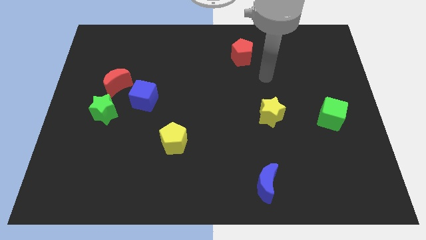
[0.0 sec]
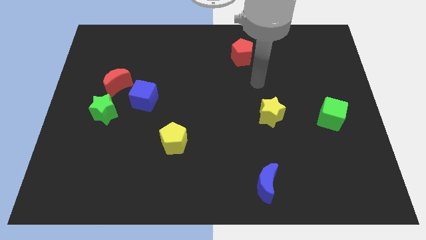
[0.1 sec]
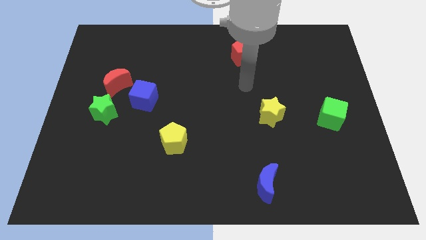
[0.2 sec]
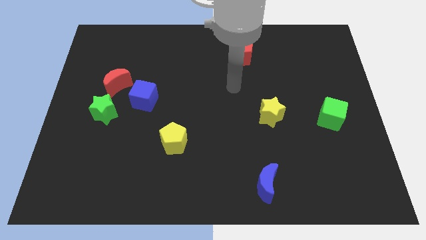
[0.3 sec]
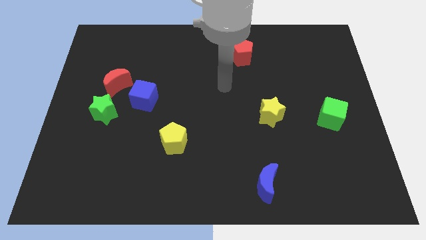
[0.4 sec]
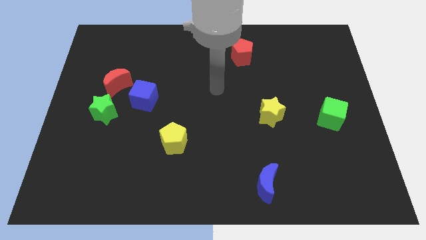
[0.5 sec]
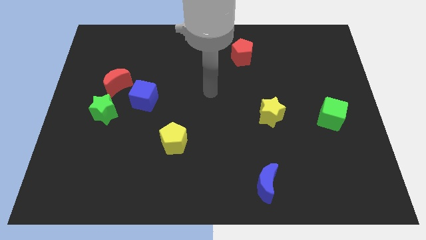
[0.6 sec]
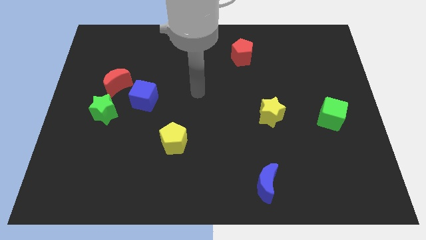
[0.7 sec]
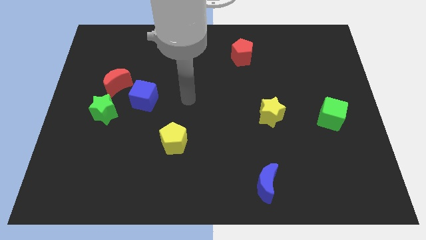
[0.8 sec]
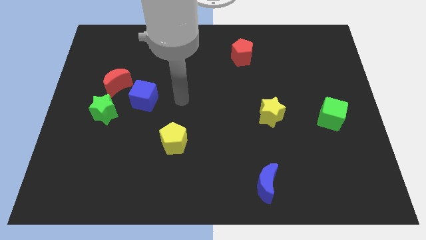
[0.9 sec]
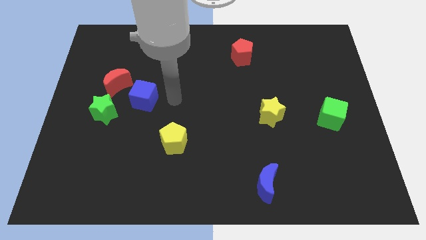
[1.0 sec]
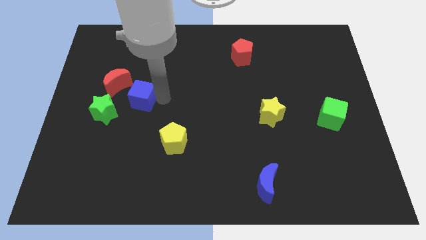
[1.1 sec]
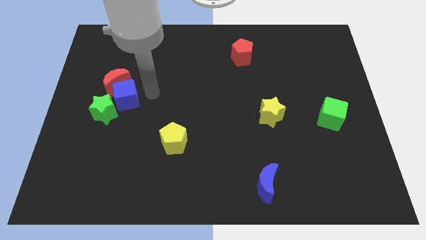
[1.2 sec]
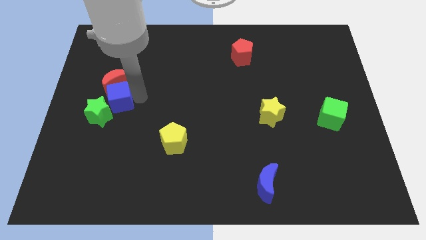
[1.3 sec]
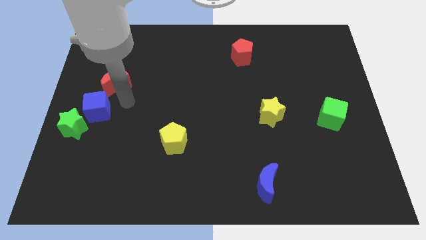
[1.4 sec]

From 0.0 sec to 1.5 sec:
move the red moon away from the blue cube and green star

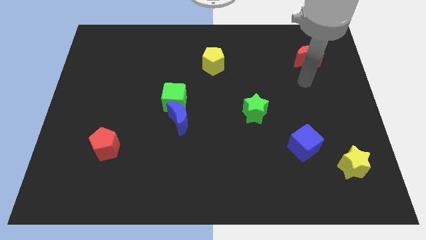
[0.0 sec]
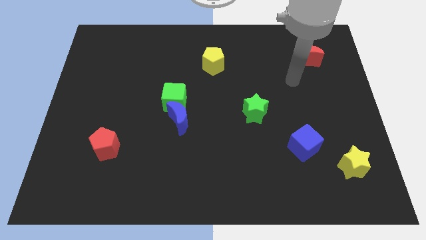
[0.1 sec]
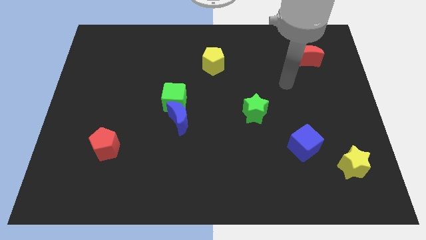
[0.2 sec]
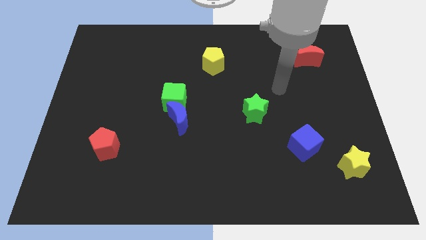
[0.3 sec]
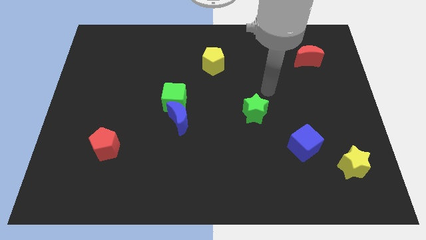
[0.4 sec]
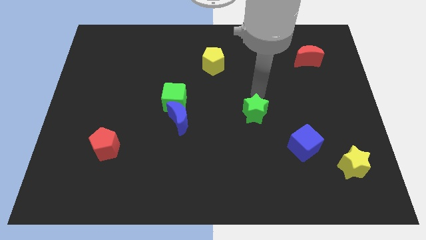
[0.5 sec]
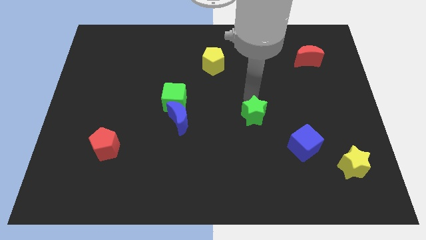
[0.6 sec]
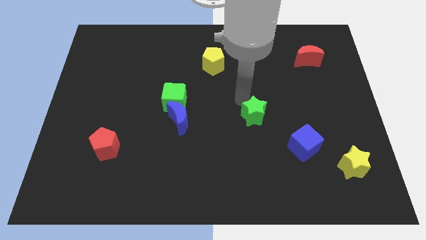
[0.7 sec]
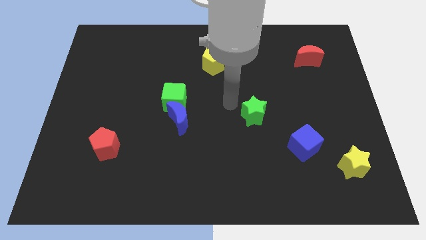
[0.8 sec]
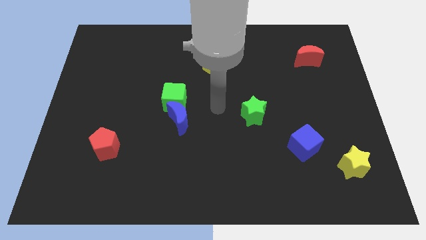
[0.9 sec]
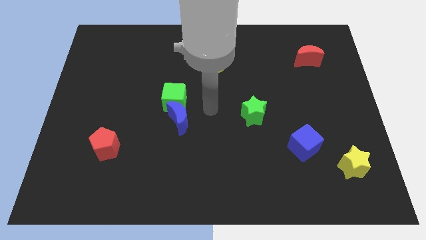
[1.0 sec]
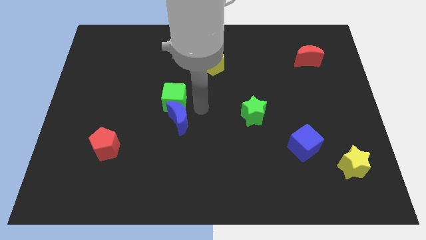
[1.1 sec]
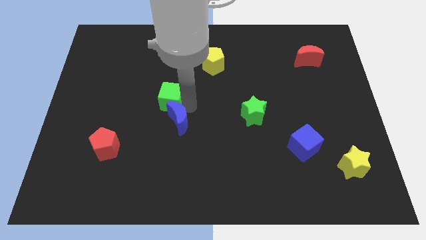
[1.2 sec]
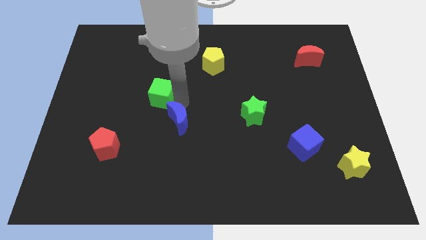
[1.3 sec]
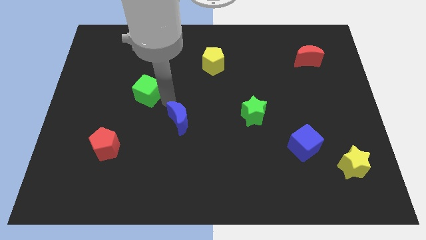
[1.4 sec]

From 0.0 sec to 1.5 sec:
pull the blue moon apart from the green cube

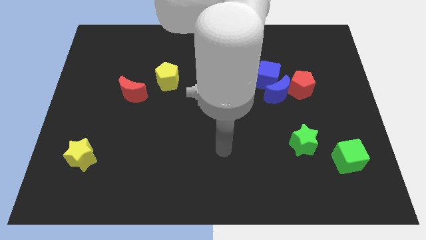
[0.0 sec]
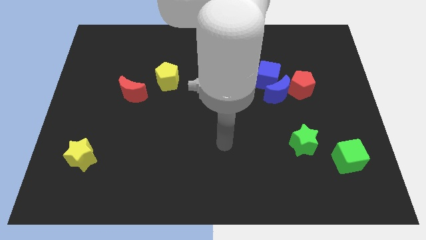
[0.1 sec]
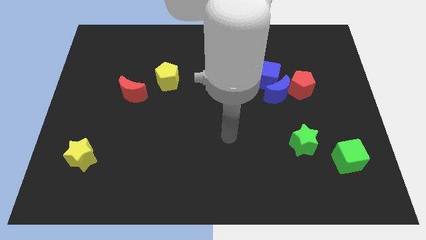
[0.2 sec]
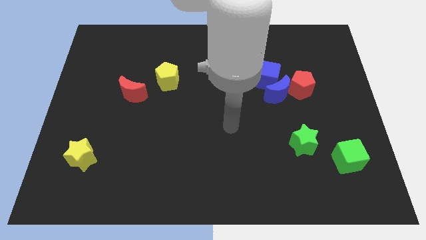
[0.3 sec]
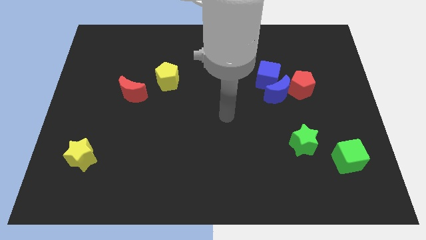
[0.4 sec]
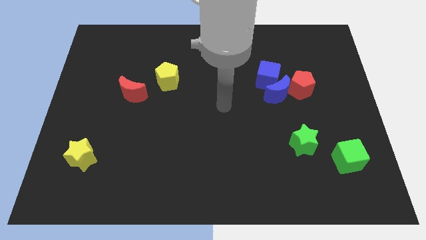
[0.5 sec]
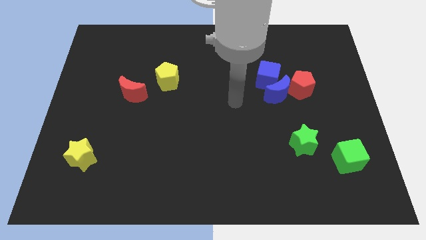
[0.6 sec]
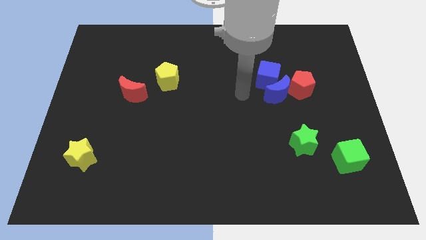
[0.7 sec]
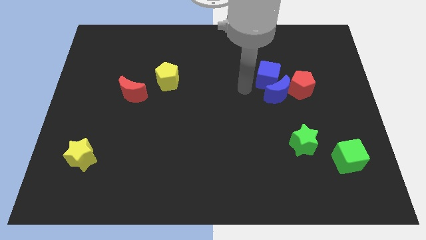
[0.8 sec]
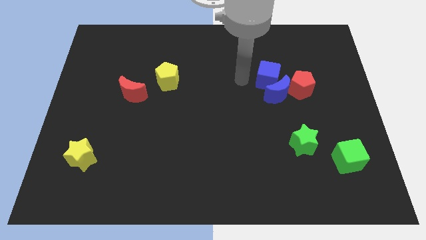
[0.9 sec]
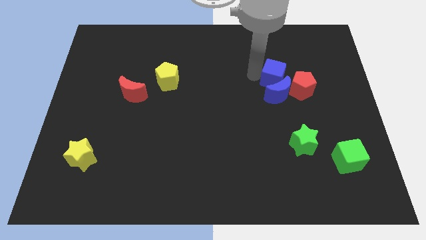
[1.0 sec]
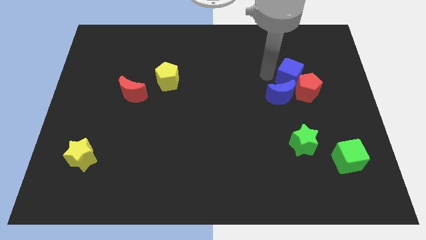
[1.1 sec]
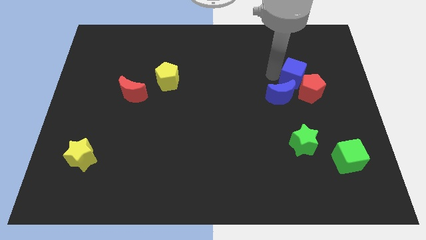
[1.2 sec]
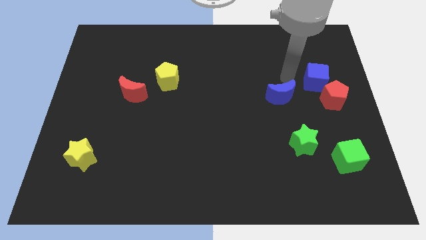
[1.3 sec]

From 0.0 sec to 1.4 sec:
pull the blue moon apart from the blue cube and red pentagon

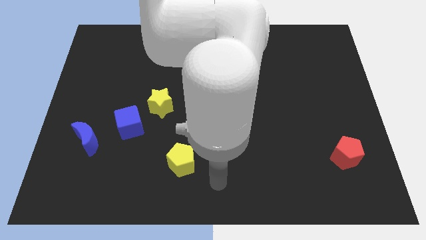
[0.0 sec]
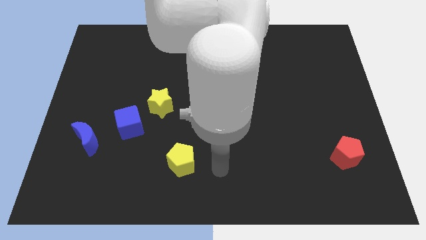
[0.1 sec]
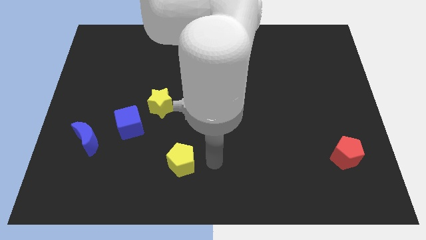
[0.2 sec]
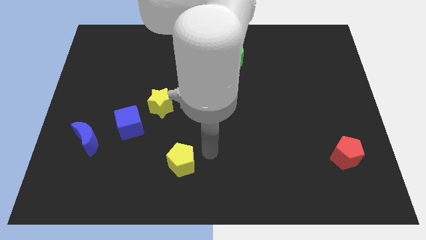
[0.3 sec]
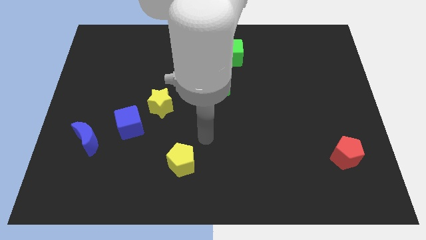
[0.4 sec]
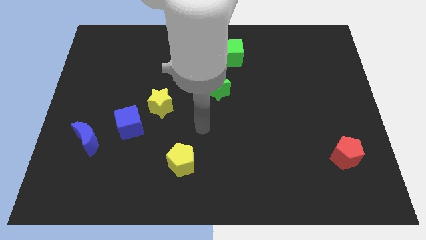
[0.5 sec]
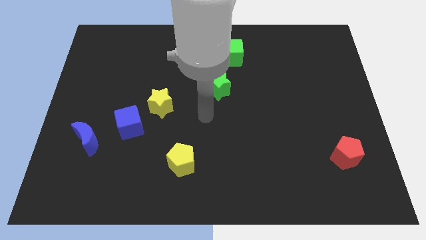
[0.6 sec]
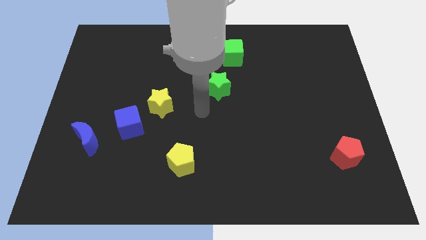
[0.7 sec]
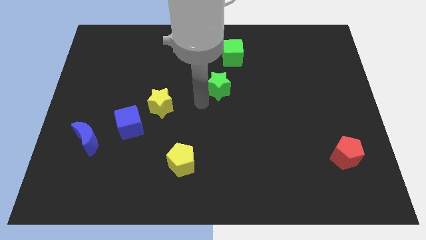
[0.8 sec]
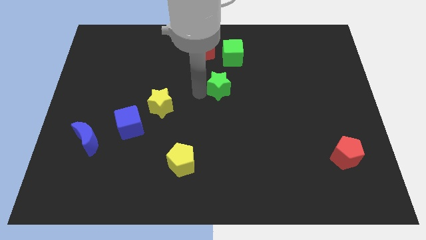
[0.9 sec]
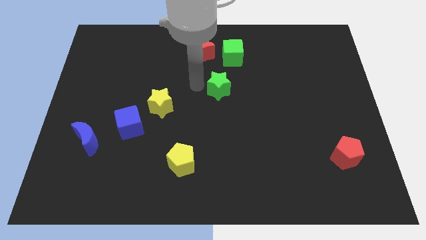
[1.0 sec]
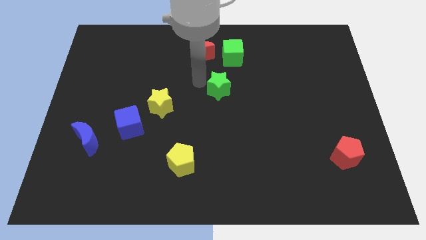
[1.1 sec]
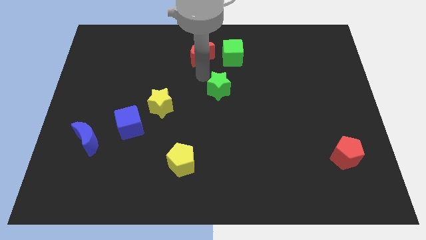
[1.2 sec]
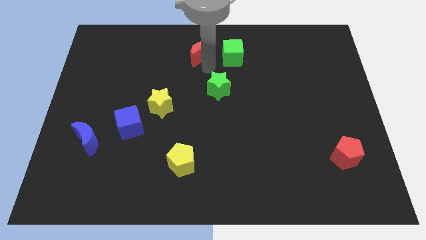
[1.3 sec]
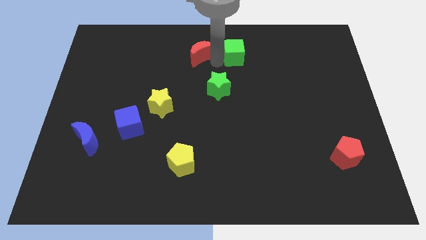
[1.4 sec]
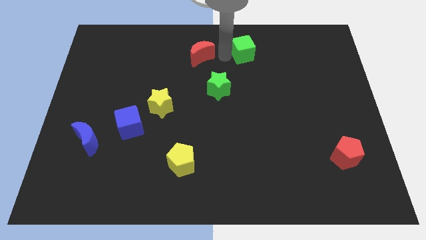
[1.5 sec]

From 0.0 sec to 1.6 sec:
separate the red moon from the green cube

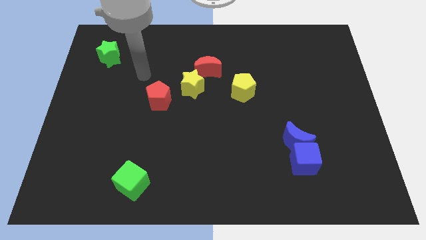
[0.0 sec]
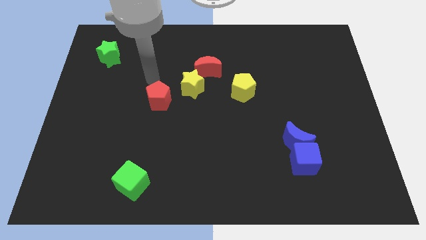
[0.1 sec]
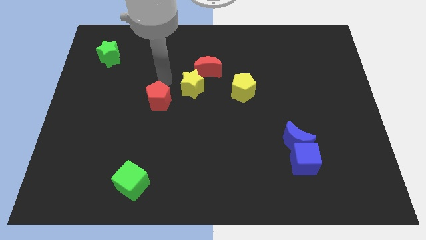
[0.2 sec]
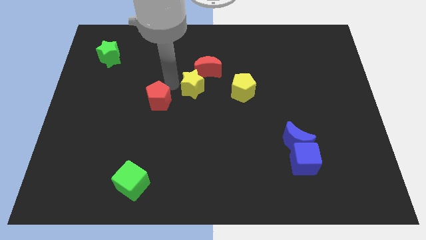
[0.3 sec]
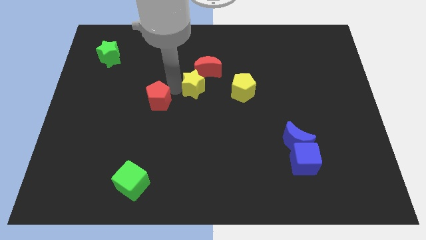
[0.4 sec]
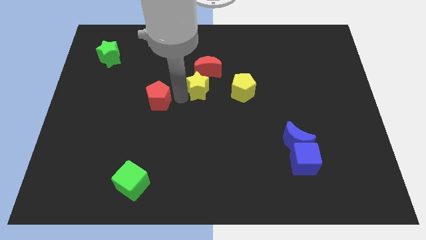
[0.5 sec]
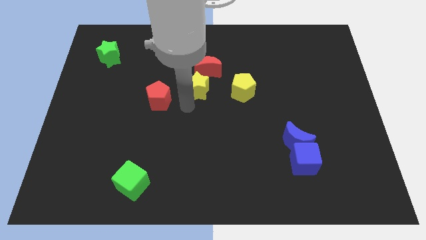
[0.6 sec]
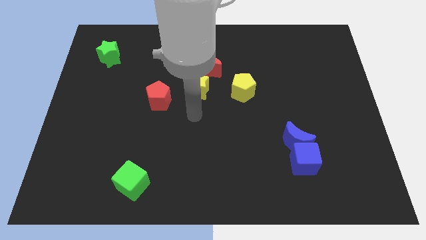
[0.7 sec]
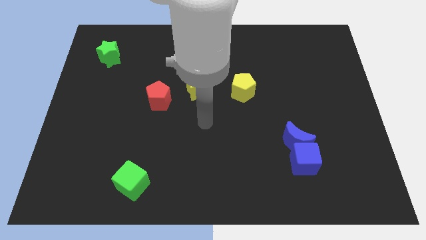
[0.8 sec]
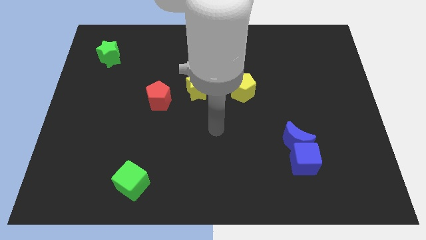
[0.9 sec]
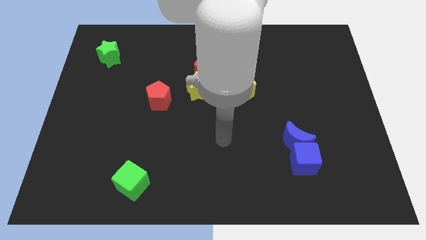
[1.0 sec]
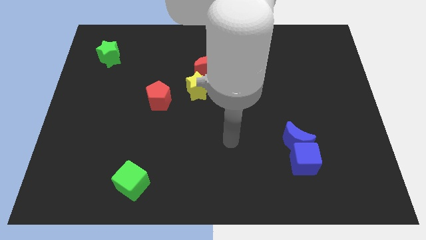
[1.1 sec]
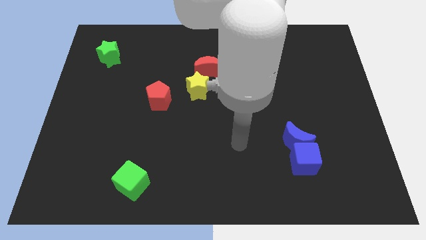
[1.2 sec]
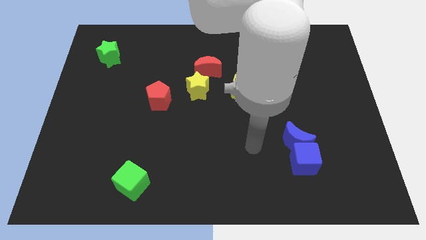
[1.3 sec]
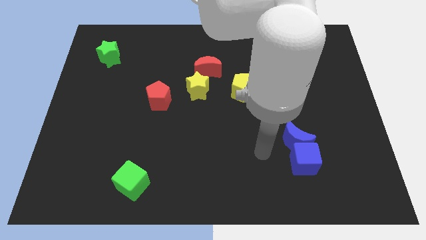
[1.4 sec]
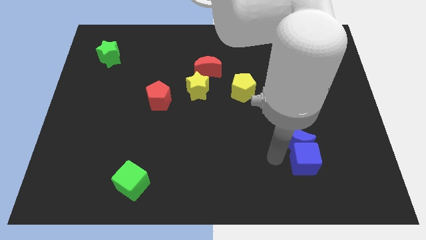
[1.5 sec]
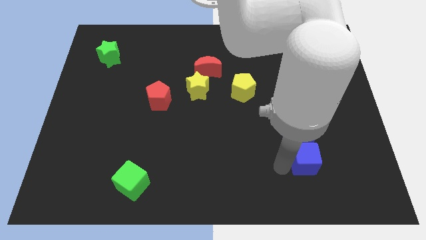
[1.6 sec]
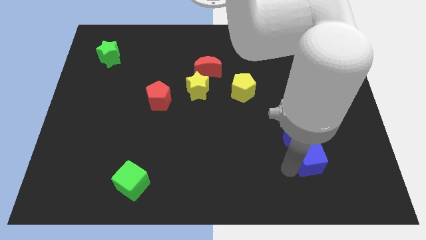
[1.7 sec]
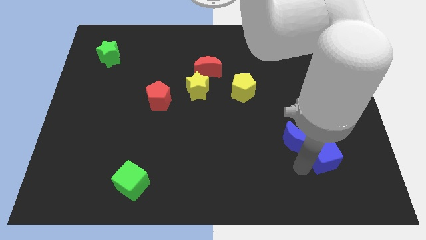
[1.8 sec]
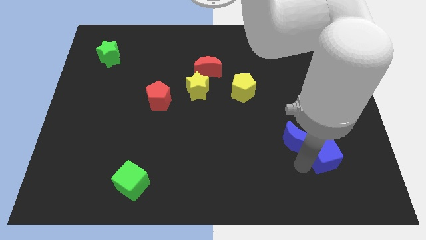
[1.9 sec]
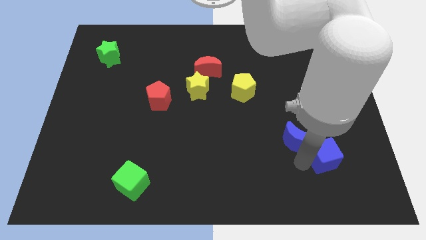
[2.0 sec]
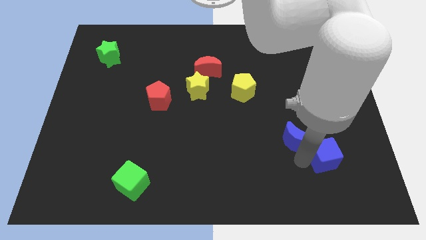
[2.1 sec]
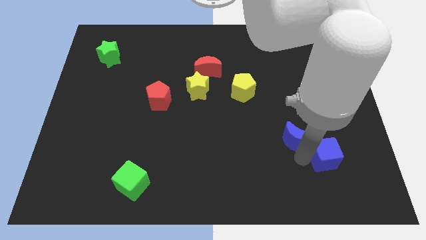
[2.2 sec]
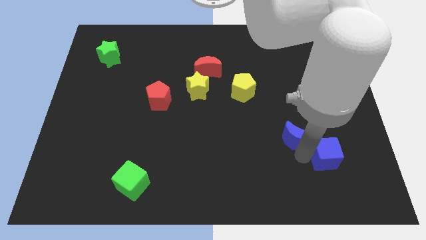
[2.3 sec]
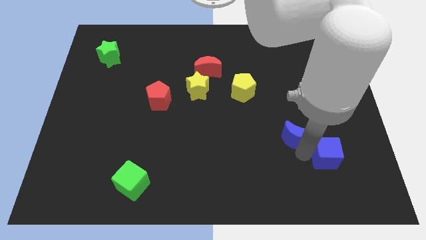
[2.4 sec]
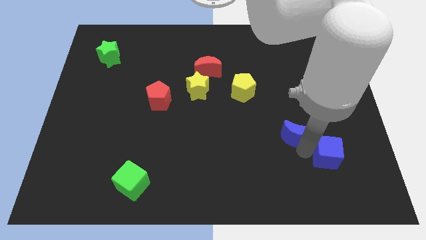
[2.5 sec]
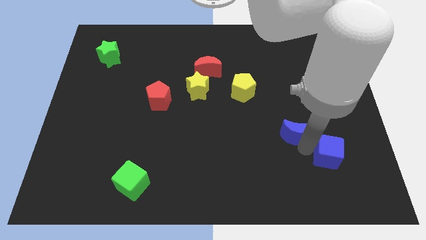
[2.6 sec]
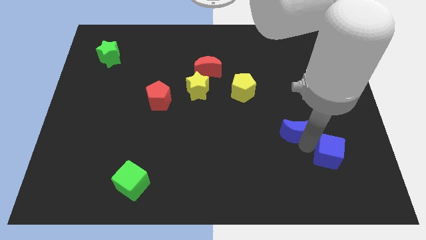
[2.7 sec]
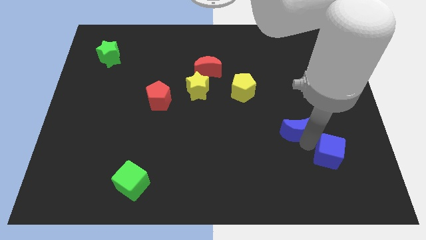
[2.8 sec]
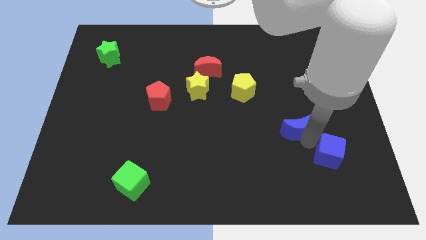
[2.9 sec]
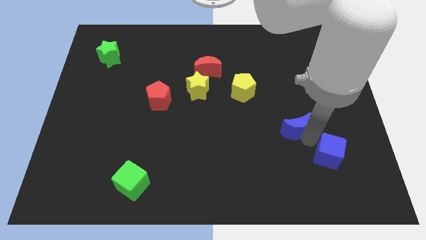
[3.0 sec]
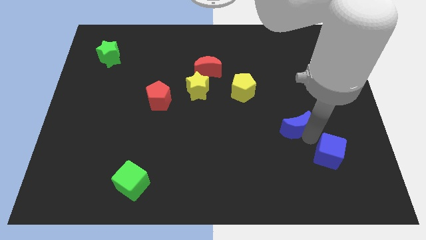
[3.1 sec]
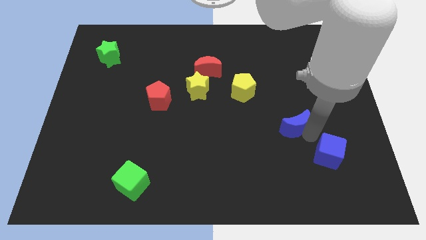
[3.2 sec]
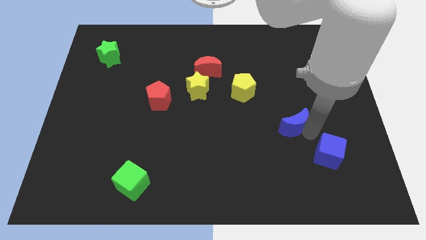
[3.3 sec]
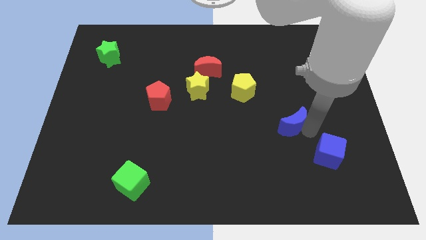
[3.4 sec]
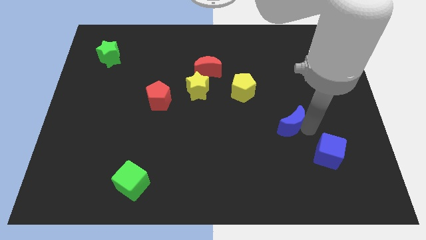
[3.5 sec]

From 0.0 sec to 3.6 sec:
pull the blue moon apart from the blue cube
